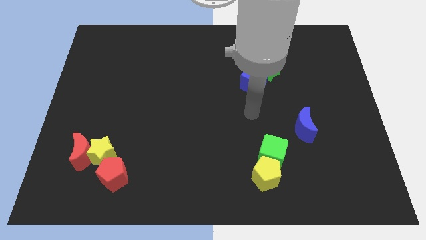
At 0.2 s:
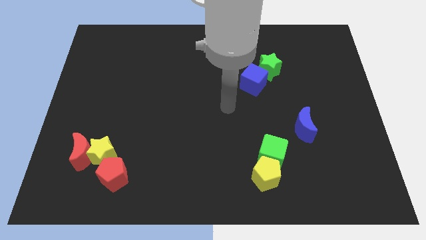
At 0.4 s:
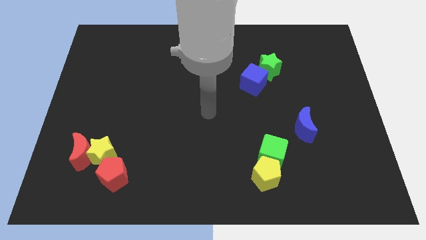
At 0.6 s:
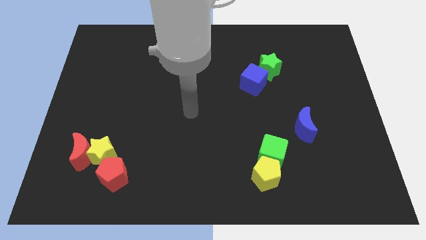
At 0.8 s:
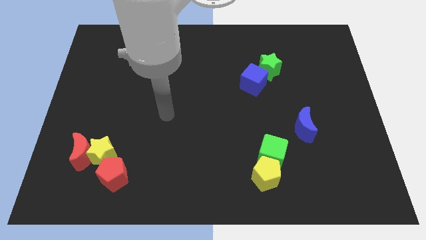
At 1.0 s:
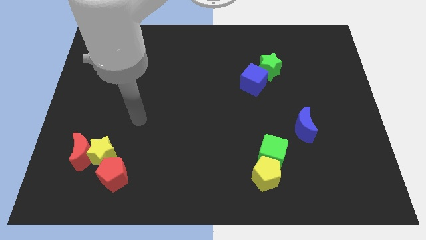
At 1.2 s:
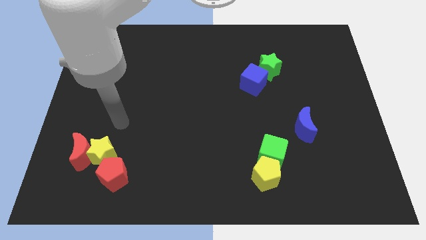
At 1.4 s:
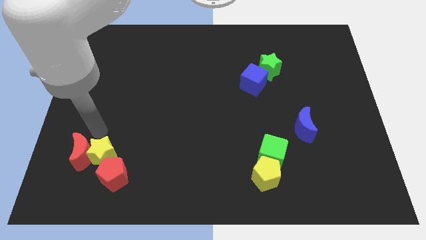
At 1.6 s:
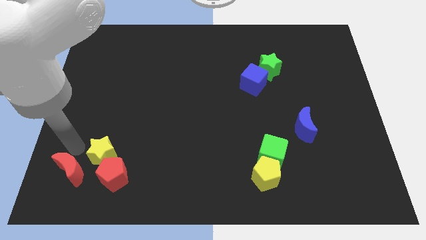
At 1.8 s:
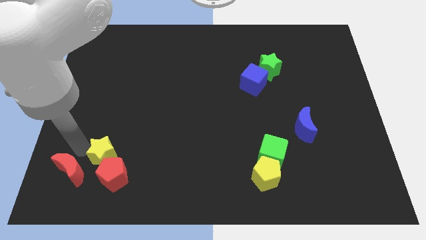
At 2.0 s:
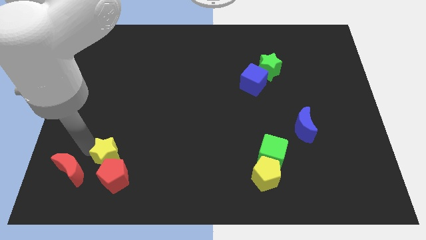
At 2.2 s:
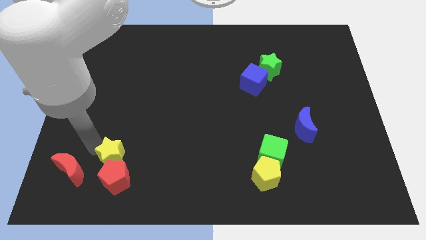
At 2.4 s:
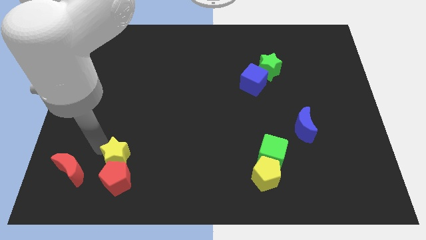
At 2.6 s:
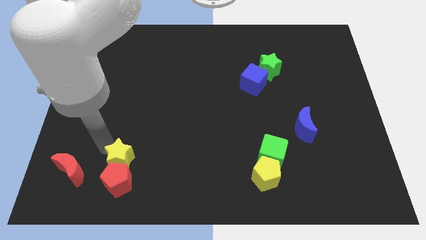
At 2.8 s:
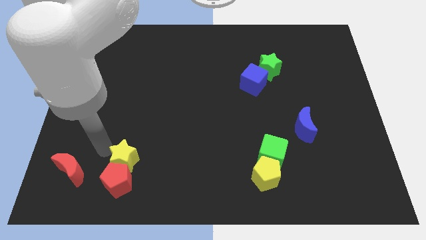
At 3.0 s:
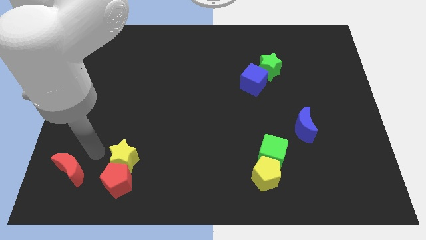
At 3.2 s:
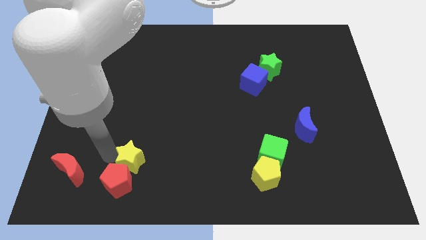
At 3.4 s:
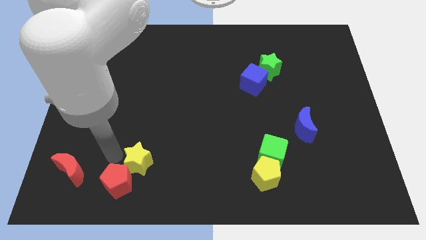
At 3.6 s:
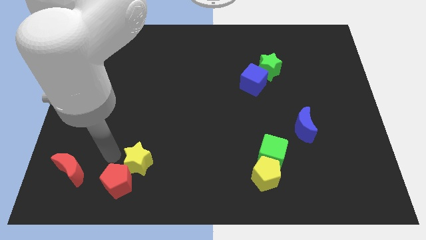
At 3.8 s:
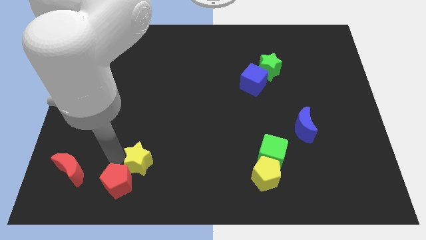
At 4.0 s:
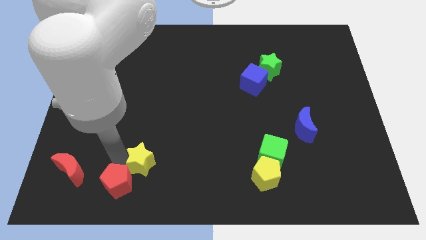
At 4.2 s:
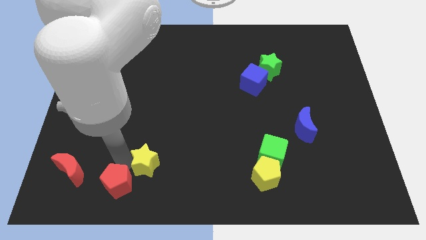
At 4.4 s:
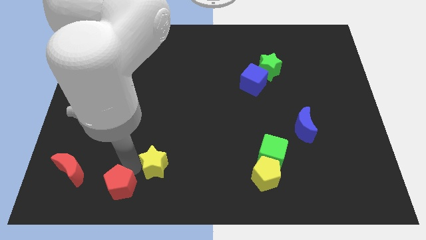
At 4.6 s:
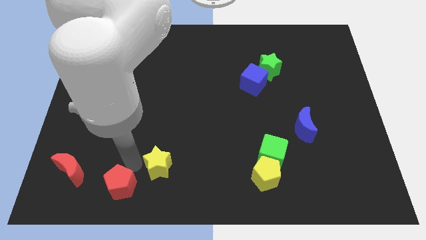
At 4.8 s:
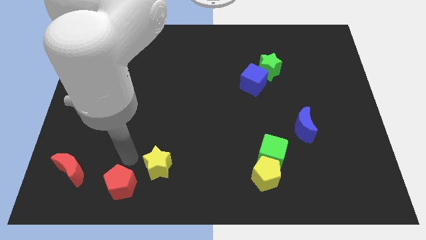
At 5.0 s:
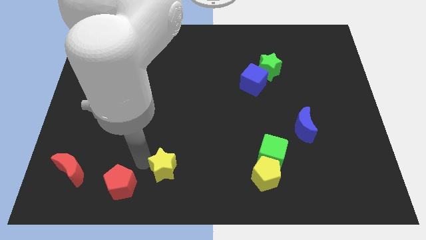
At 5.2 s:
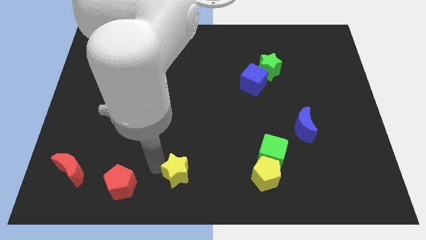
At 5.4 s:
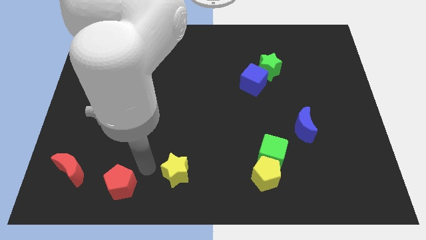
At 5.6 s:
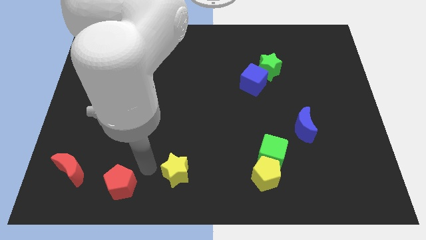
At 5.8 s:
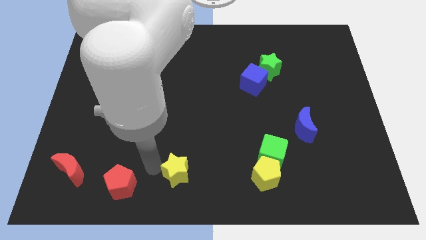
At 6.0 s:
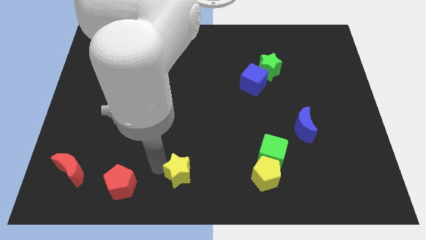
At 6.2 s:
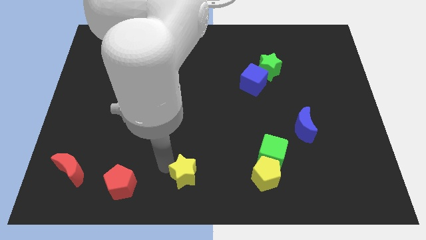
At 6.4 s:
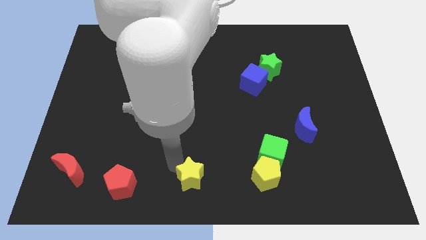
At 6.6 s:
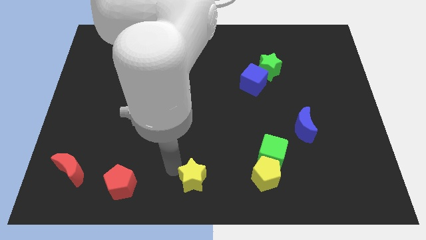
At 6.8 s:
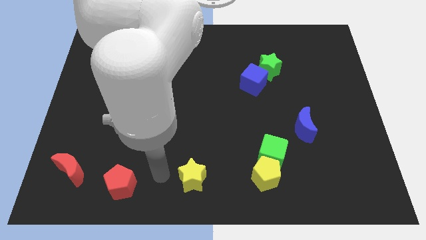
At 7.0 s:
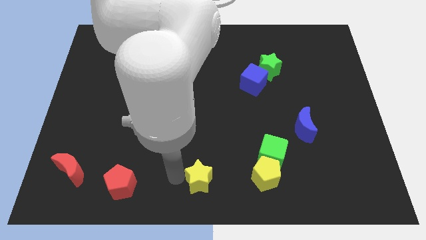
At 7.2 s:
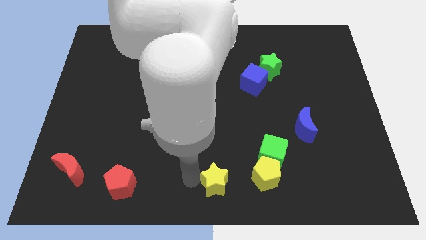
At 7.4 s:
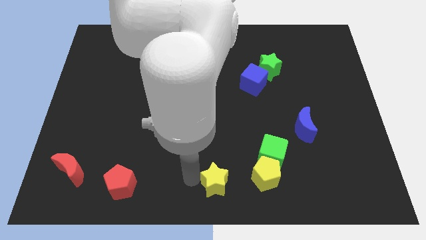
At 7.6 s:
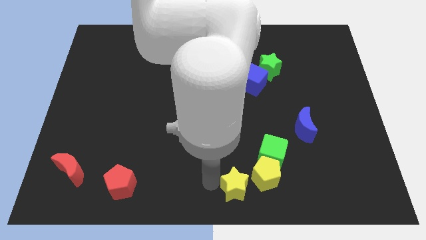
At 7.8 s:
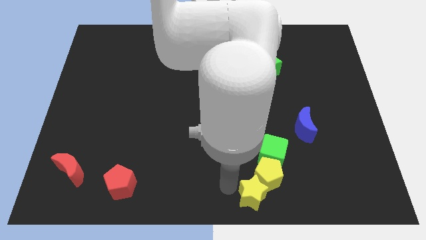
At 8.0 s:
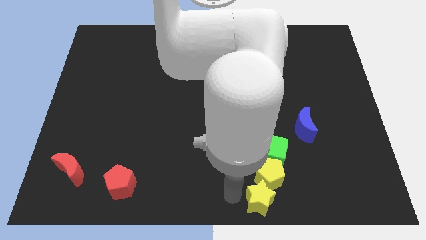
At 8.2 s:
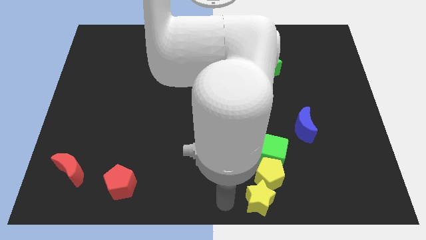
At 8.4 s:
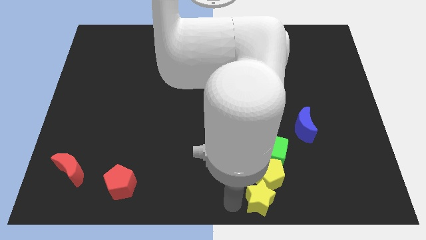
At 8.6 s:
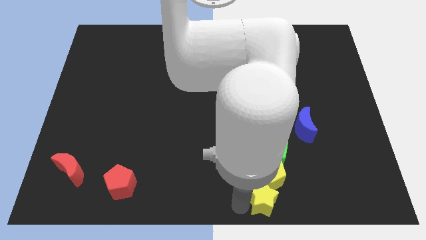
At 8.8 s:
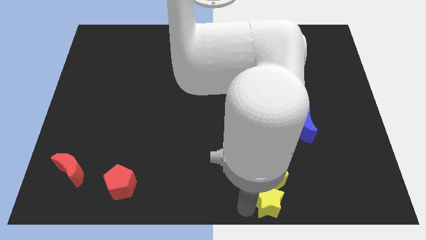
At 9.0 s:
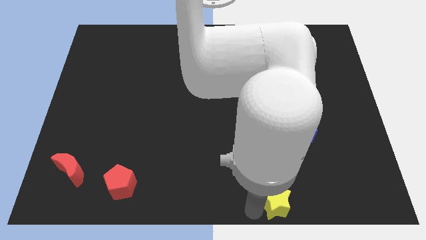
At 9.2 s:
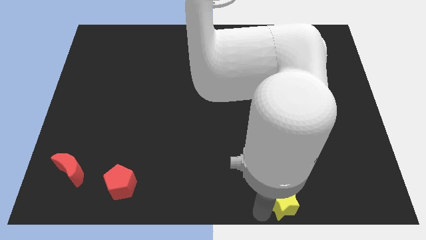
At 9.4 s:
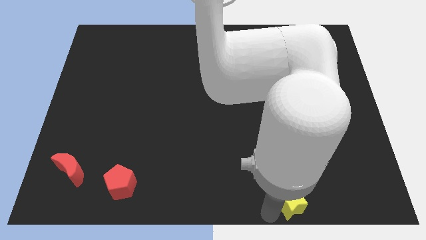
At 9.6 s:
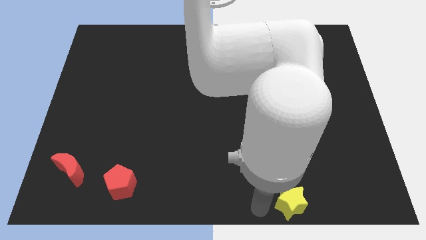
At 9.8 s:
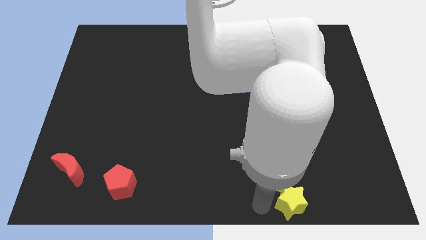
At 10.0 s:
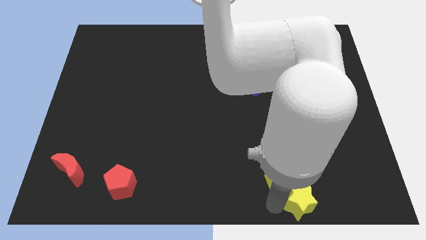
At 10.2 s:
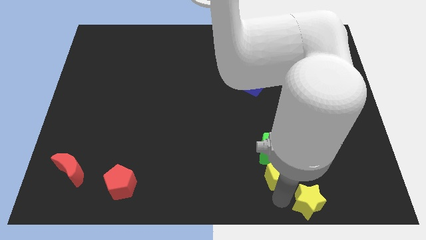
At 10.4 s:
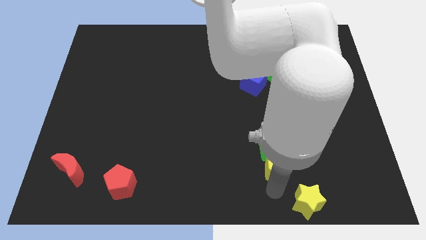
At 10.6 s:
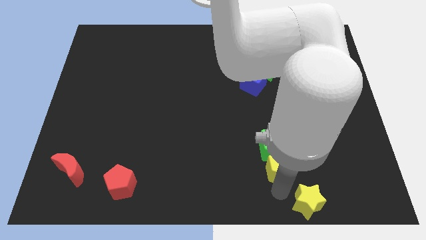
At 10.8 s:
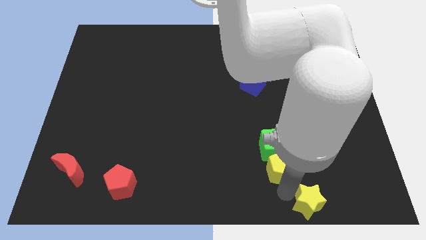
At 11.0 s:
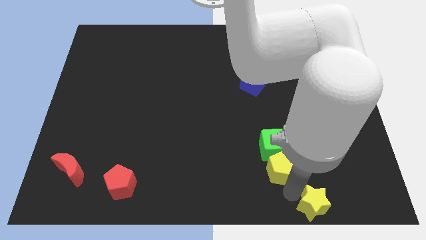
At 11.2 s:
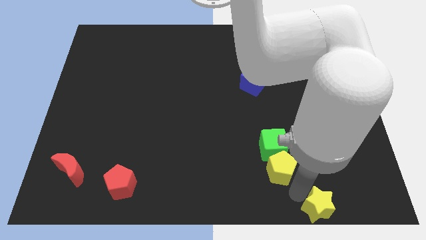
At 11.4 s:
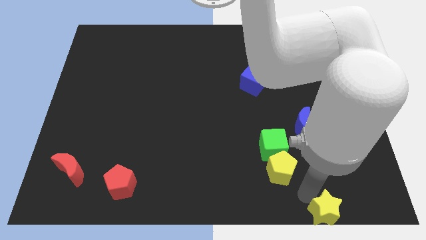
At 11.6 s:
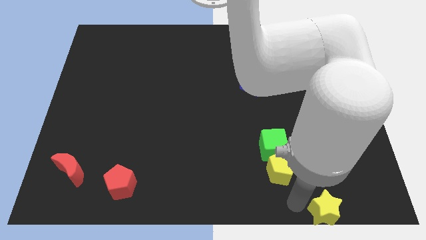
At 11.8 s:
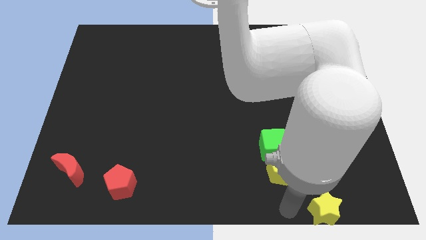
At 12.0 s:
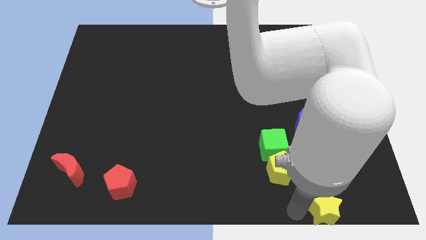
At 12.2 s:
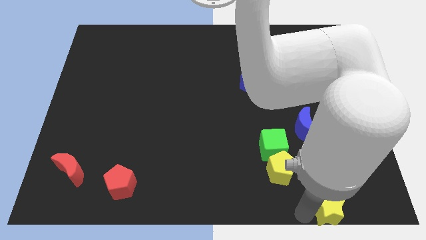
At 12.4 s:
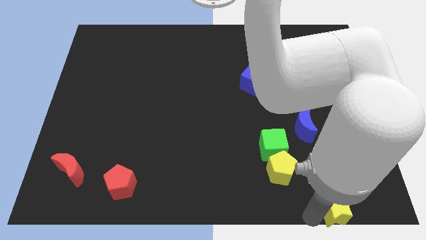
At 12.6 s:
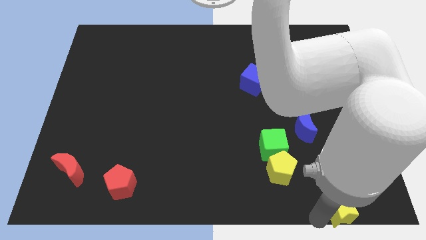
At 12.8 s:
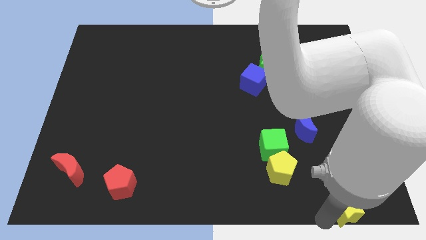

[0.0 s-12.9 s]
slide the yellow star to the bottom right of the board

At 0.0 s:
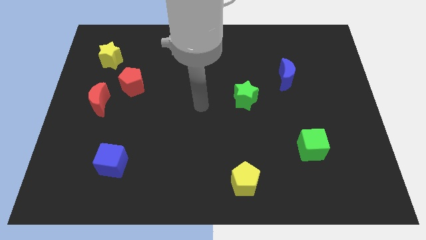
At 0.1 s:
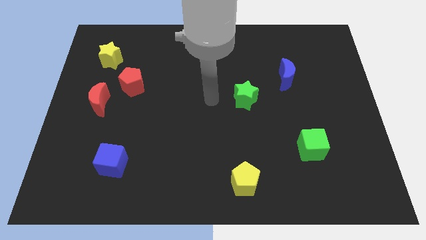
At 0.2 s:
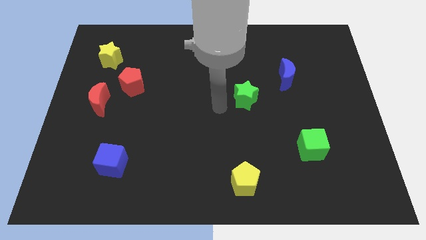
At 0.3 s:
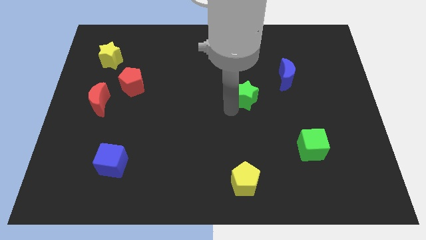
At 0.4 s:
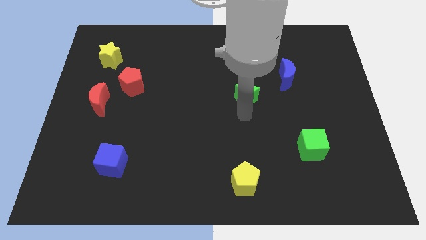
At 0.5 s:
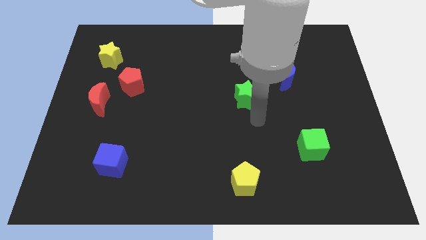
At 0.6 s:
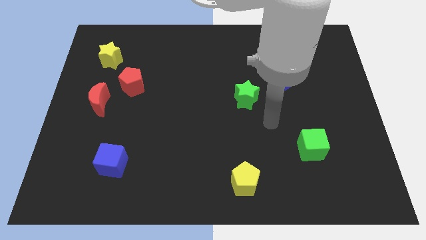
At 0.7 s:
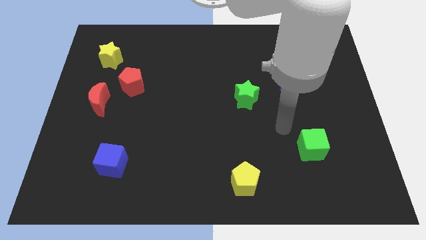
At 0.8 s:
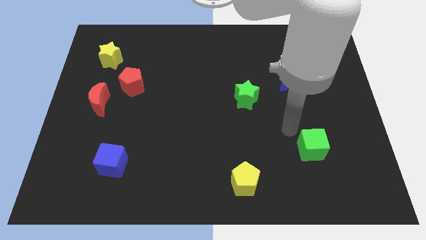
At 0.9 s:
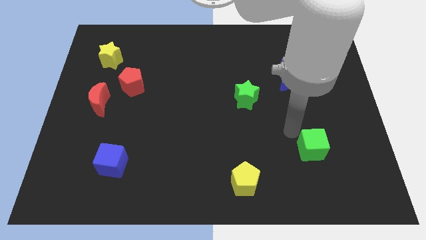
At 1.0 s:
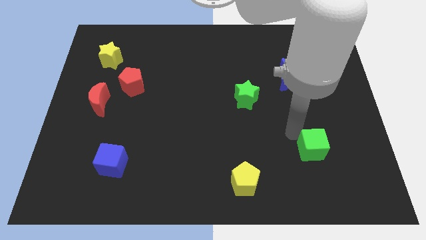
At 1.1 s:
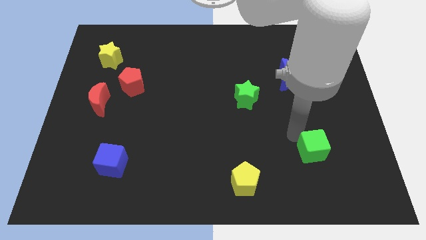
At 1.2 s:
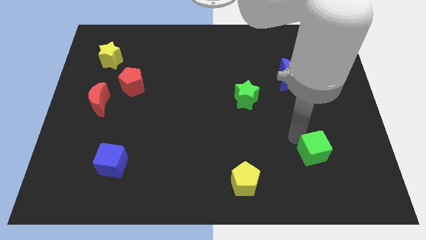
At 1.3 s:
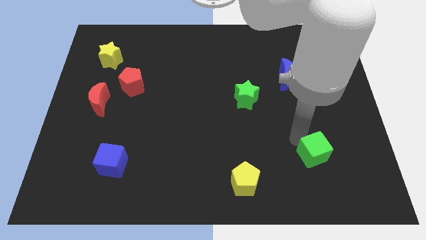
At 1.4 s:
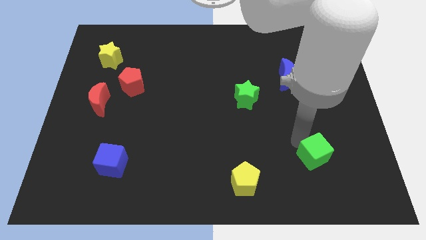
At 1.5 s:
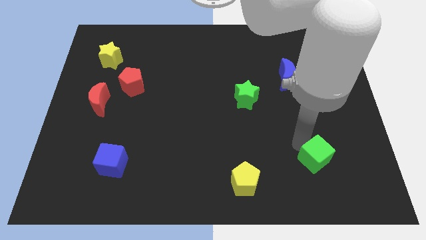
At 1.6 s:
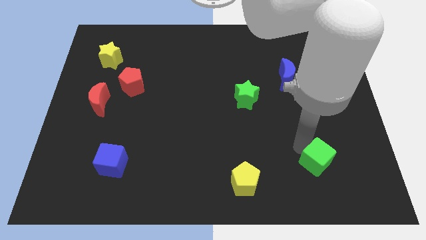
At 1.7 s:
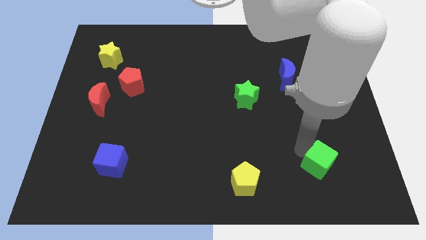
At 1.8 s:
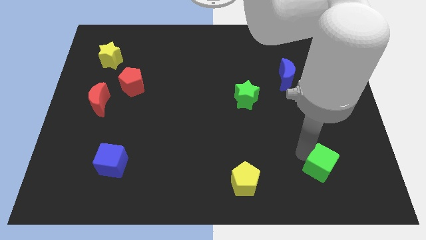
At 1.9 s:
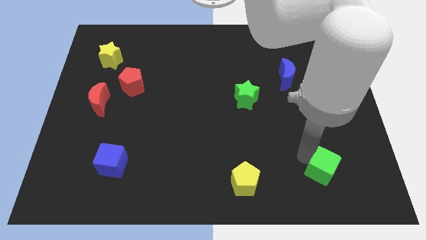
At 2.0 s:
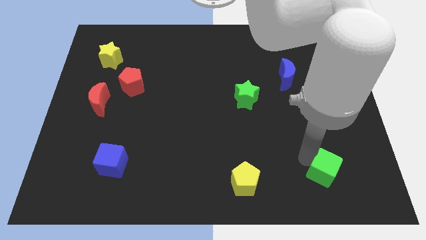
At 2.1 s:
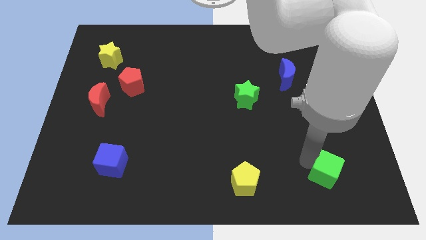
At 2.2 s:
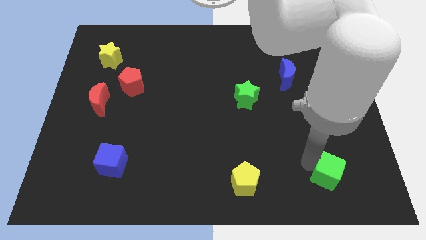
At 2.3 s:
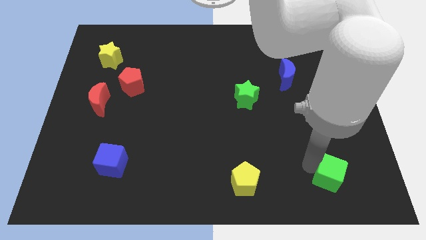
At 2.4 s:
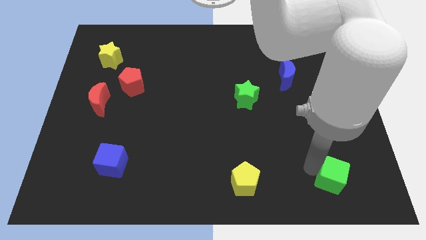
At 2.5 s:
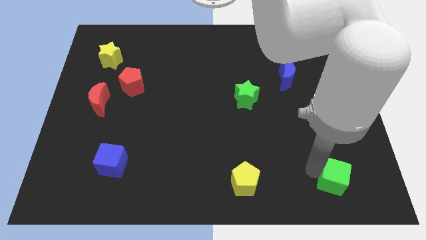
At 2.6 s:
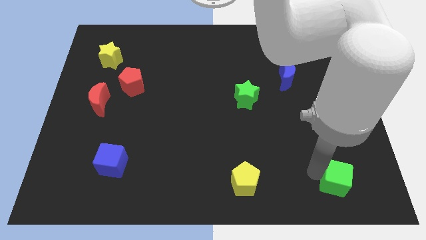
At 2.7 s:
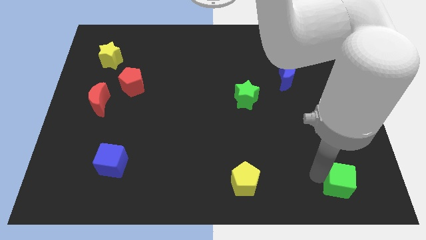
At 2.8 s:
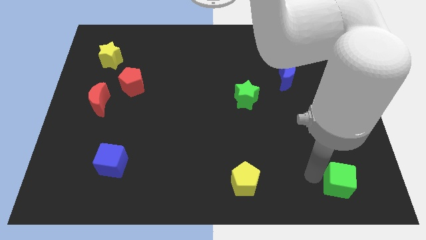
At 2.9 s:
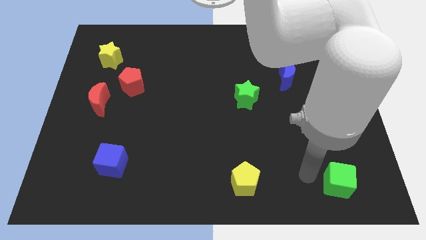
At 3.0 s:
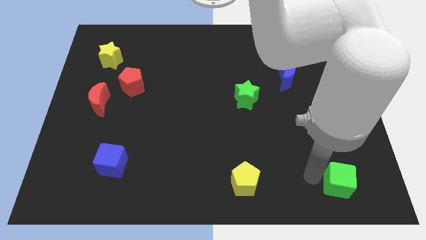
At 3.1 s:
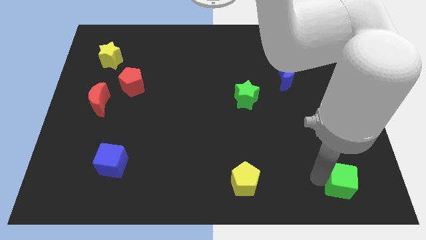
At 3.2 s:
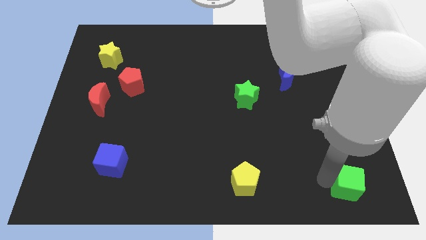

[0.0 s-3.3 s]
push the green cube to the bottom right
